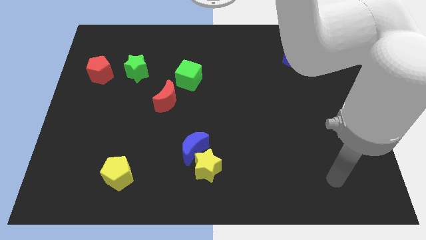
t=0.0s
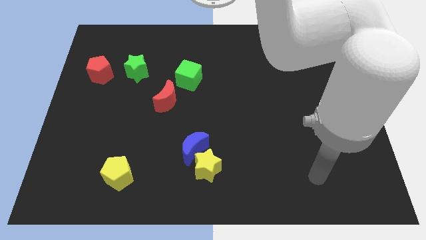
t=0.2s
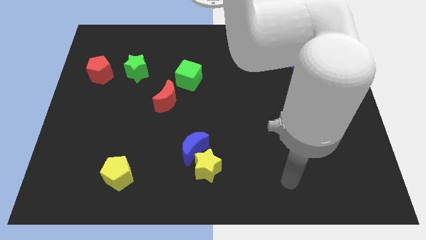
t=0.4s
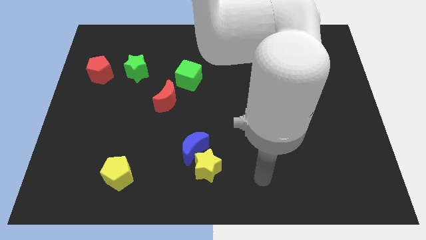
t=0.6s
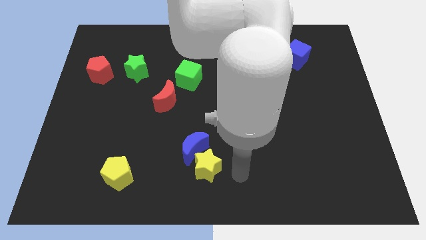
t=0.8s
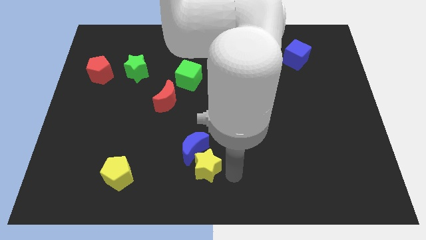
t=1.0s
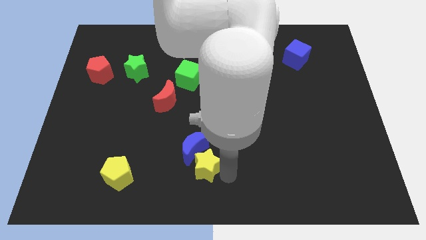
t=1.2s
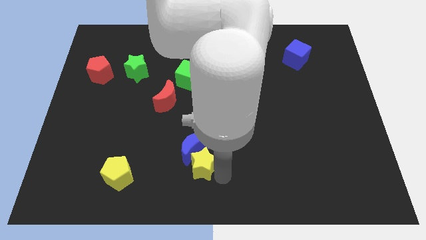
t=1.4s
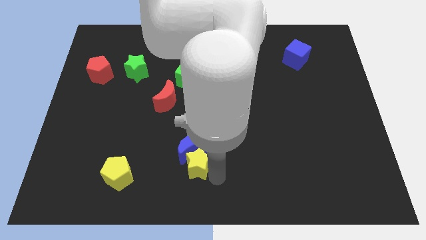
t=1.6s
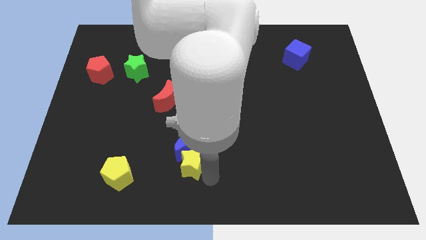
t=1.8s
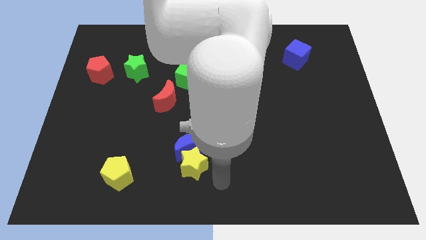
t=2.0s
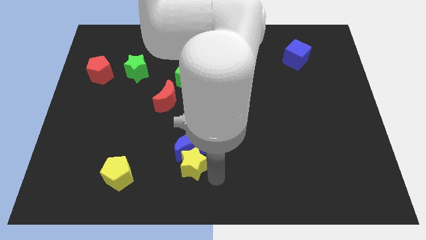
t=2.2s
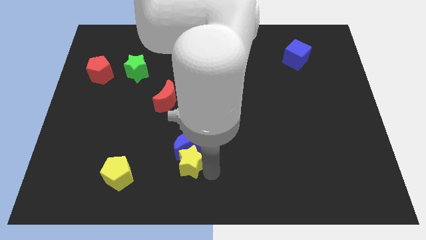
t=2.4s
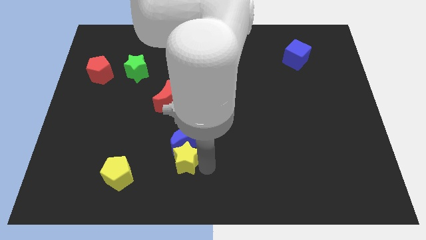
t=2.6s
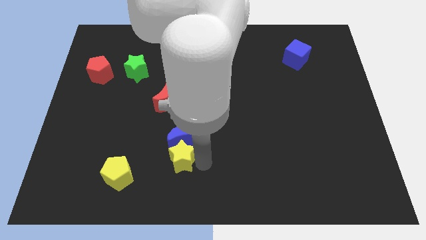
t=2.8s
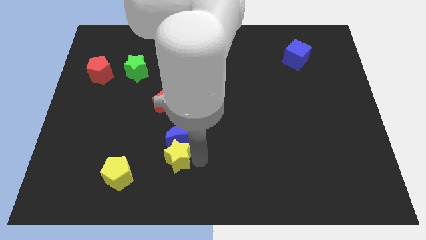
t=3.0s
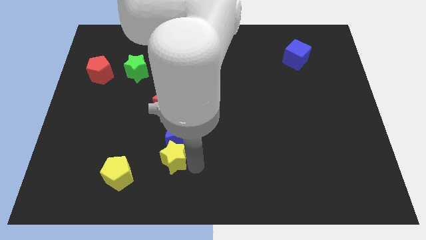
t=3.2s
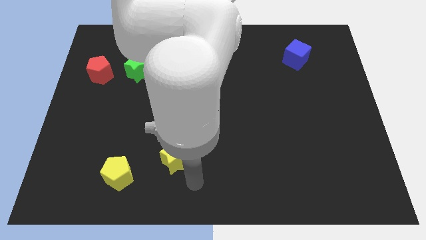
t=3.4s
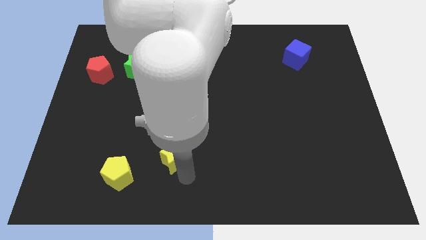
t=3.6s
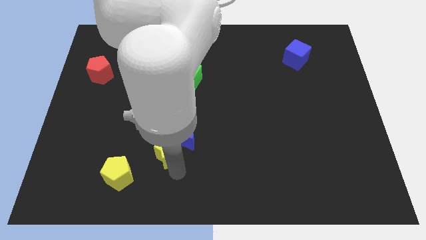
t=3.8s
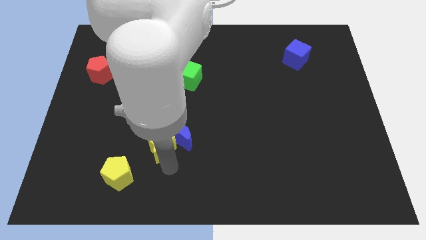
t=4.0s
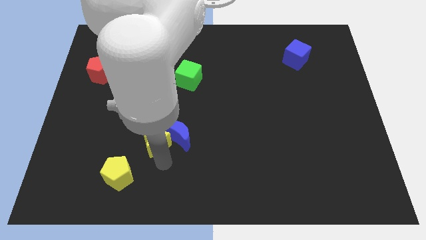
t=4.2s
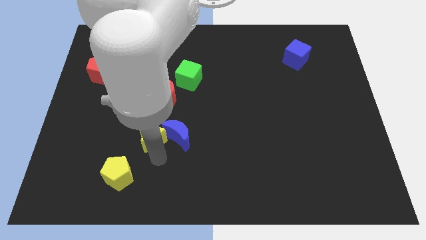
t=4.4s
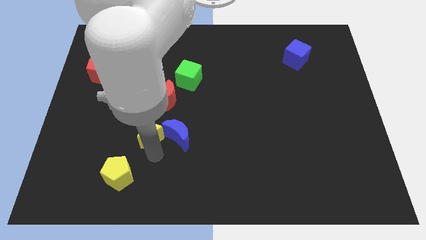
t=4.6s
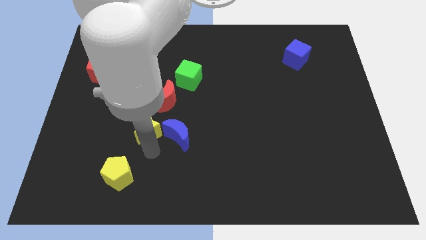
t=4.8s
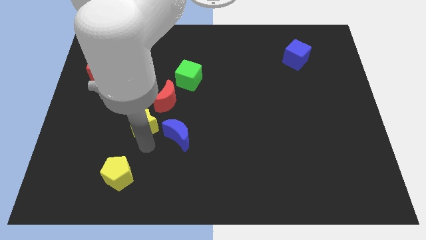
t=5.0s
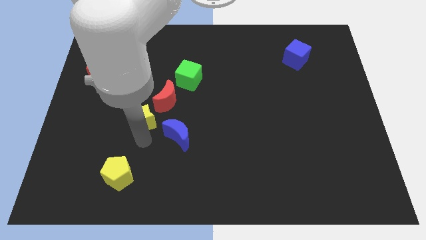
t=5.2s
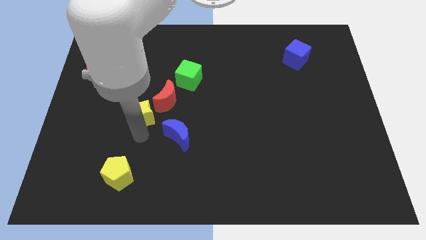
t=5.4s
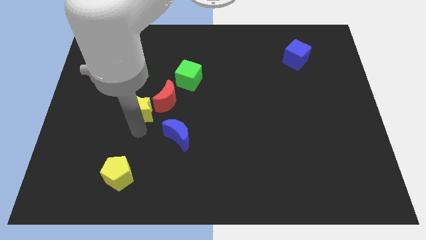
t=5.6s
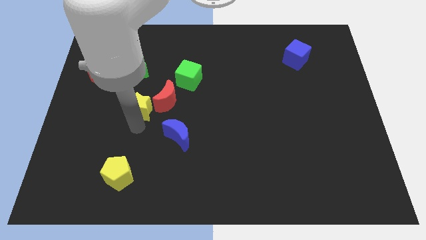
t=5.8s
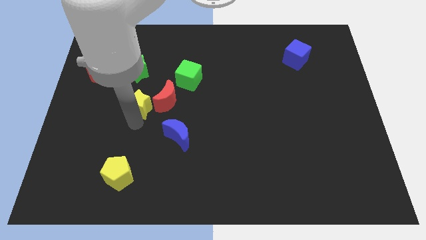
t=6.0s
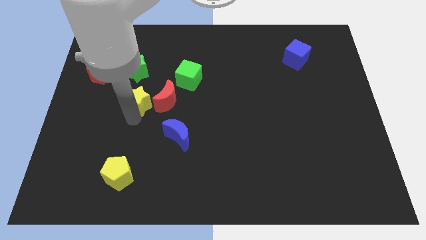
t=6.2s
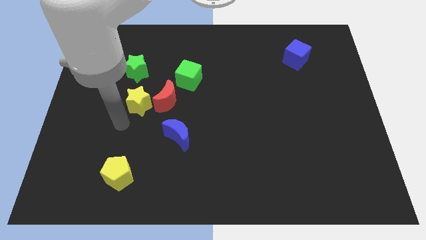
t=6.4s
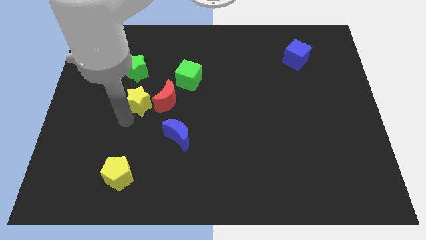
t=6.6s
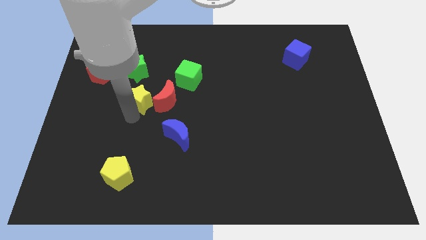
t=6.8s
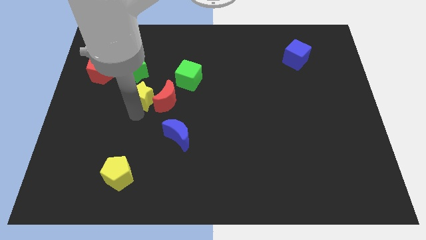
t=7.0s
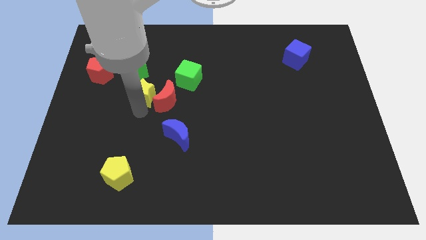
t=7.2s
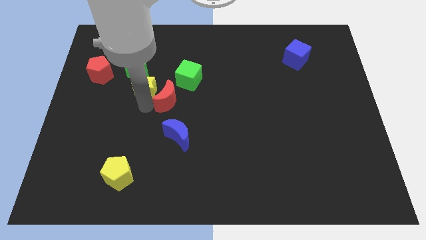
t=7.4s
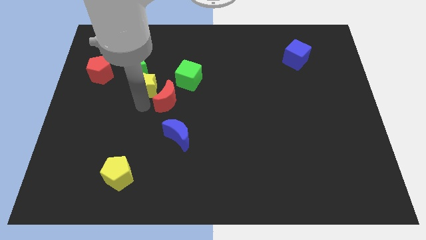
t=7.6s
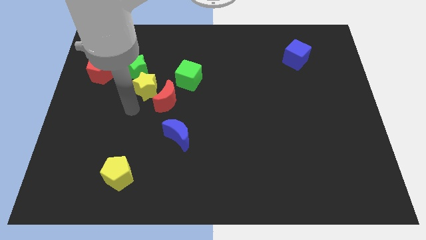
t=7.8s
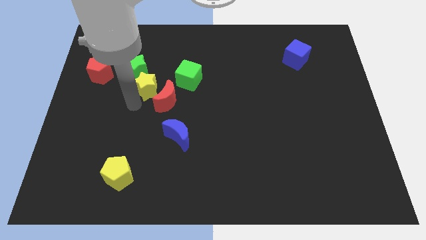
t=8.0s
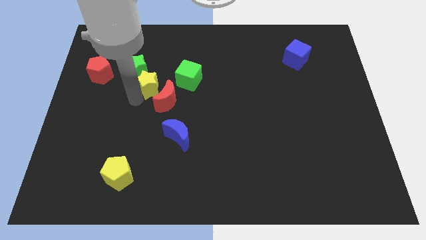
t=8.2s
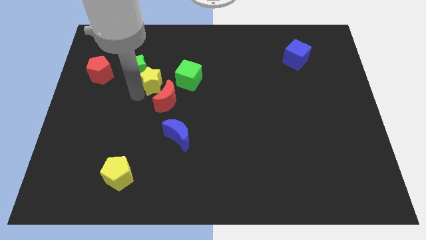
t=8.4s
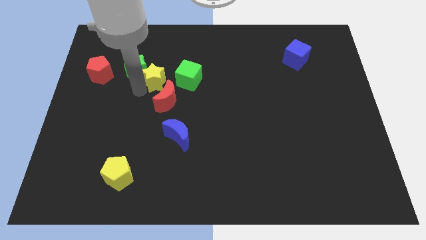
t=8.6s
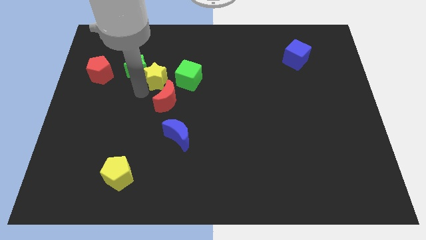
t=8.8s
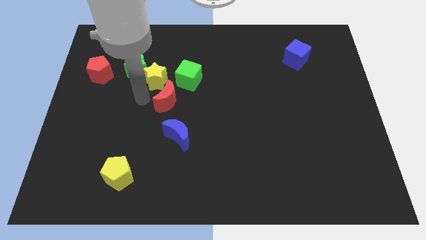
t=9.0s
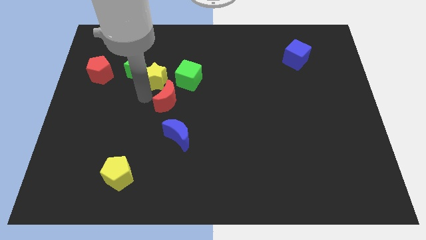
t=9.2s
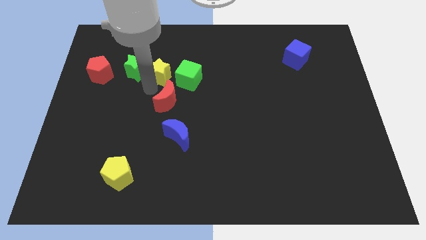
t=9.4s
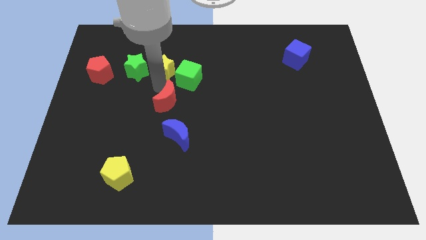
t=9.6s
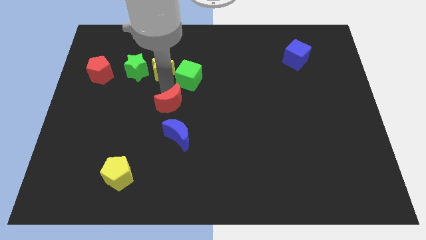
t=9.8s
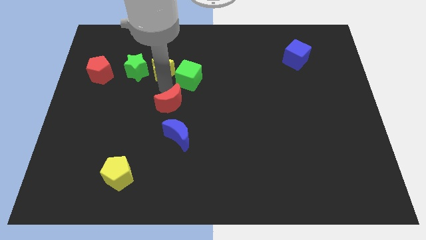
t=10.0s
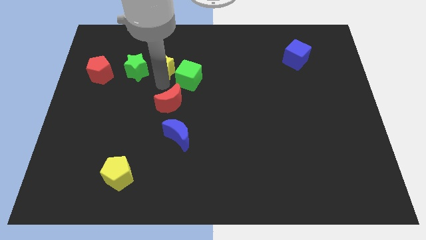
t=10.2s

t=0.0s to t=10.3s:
put the yellow star diagonally up and to the right of the green star

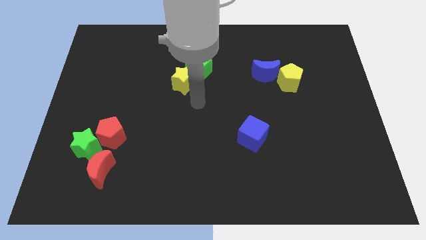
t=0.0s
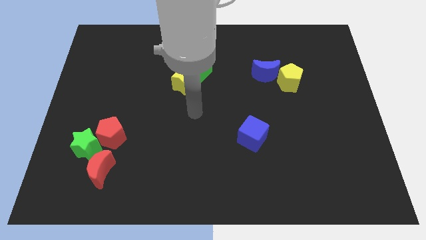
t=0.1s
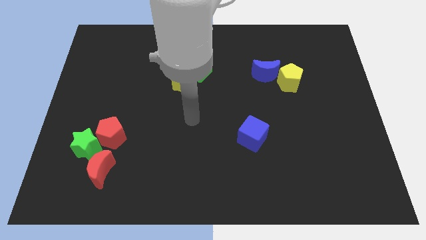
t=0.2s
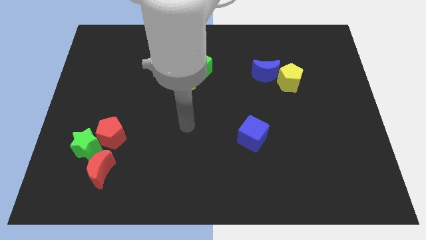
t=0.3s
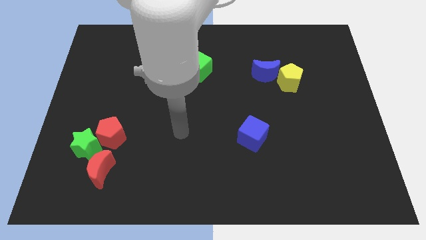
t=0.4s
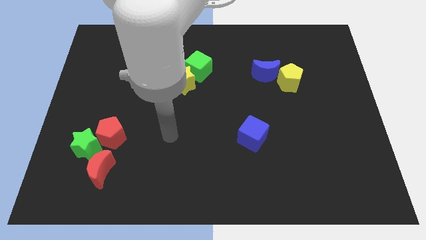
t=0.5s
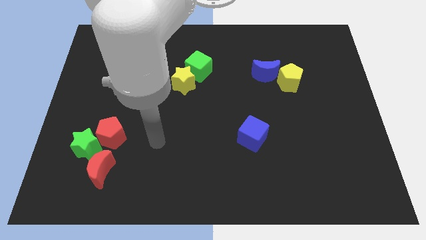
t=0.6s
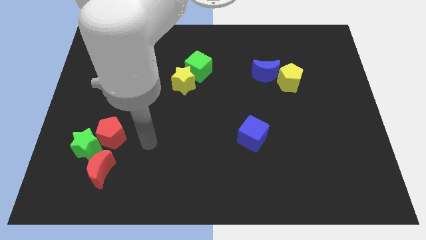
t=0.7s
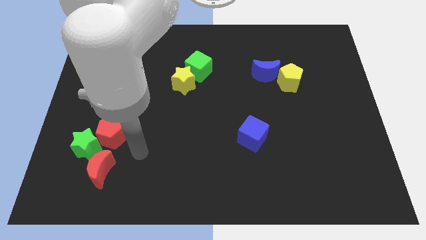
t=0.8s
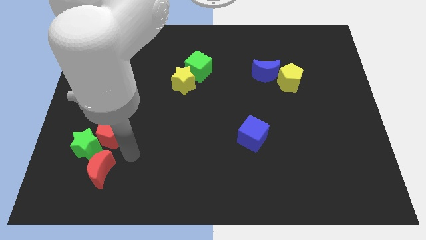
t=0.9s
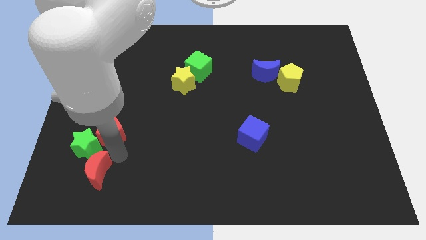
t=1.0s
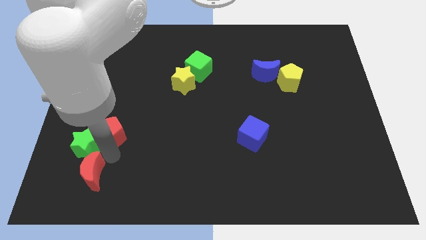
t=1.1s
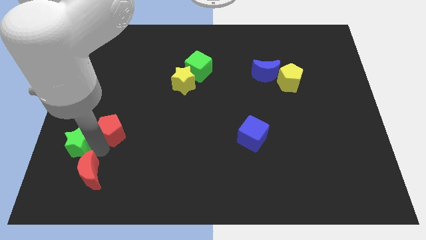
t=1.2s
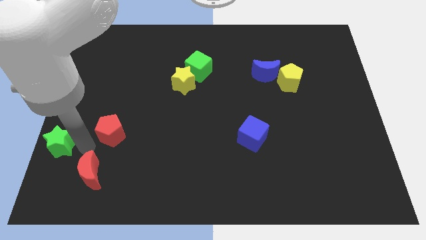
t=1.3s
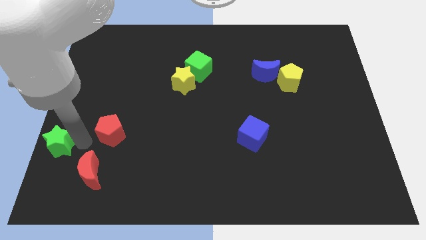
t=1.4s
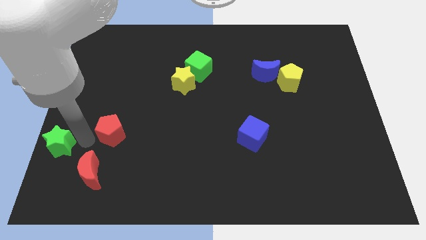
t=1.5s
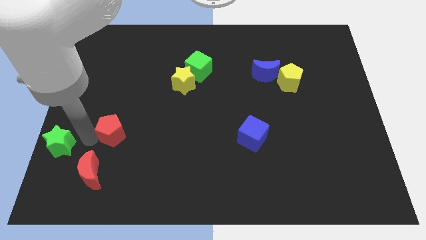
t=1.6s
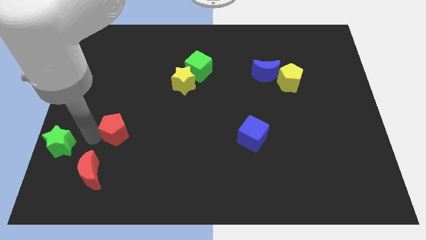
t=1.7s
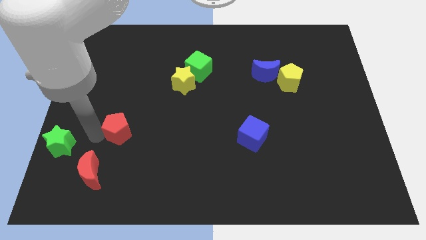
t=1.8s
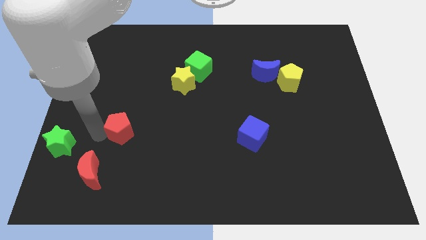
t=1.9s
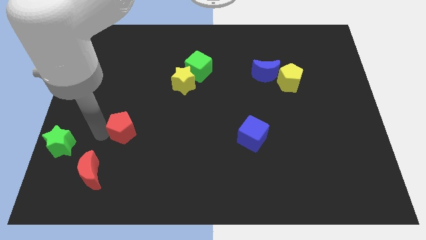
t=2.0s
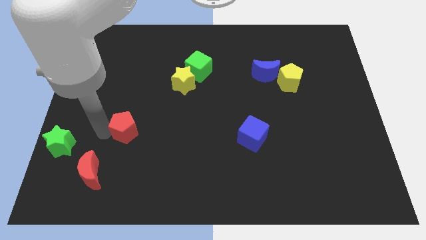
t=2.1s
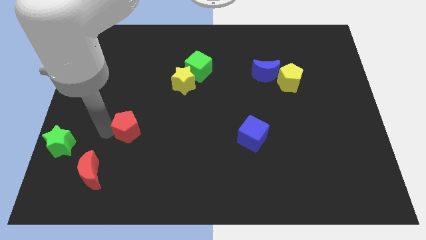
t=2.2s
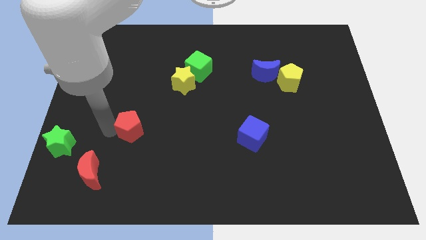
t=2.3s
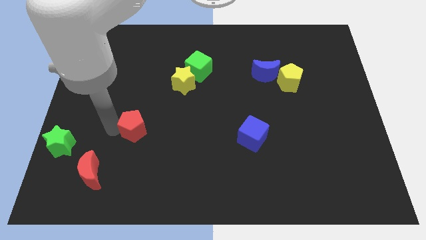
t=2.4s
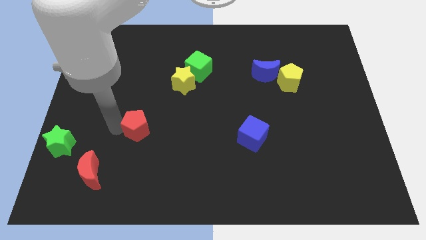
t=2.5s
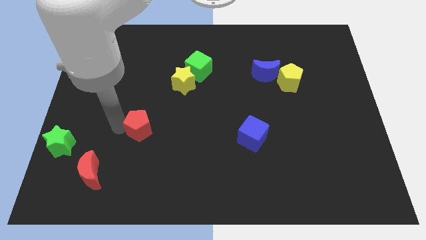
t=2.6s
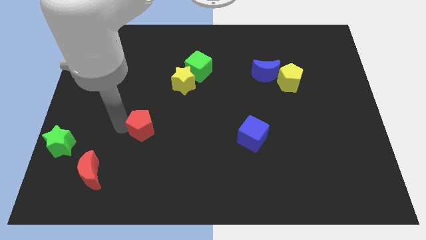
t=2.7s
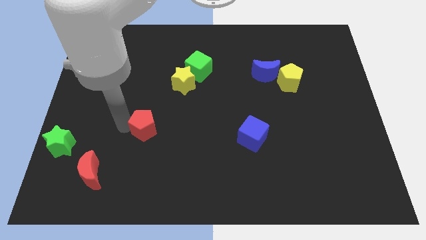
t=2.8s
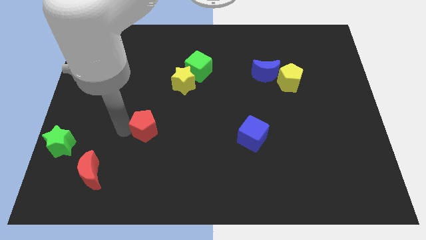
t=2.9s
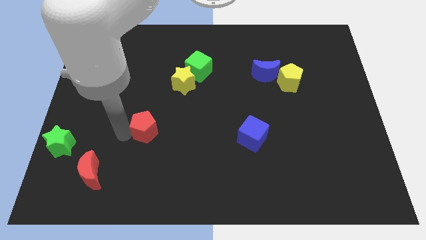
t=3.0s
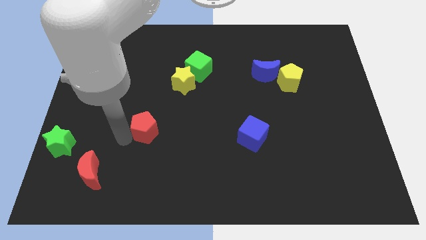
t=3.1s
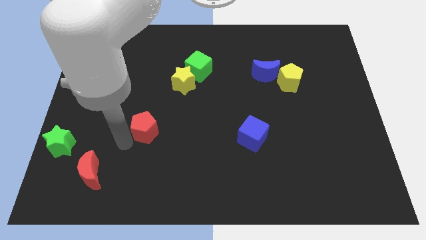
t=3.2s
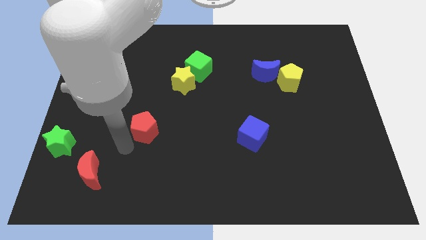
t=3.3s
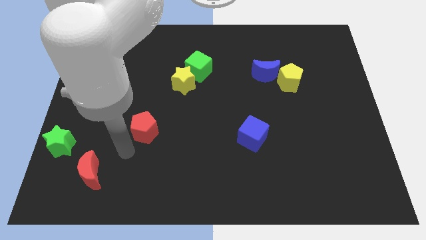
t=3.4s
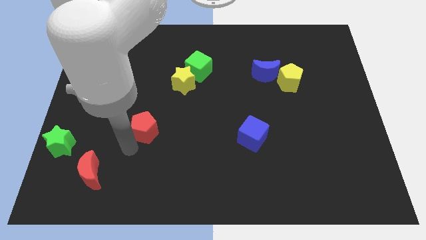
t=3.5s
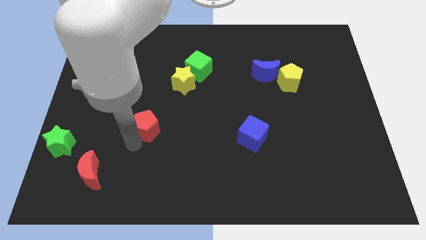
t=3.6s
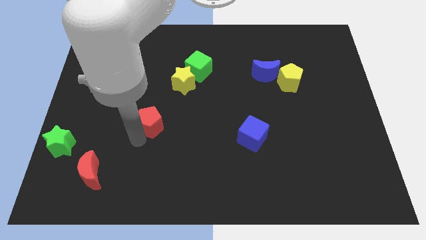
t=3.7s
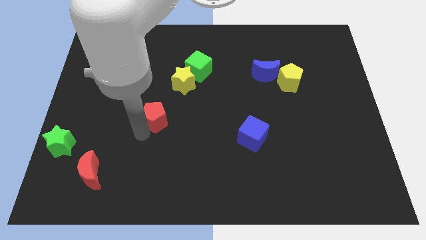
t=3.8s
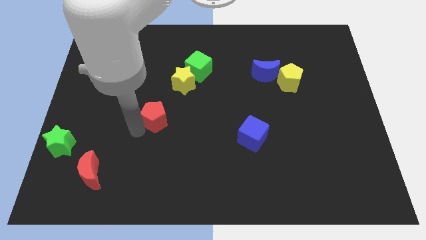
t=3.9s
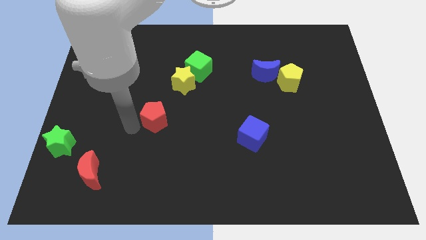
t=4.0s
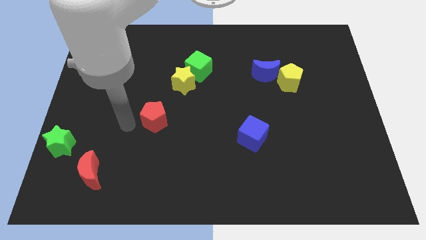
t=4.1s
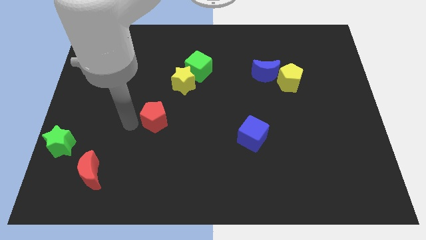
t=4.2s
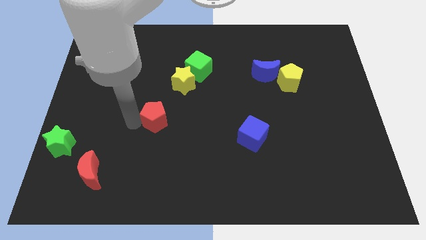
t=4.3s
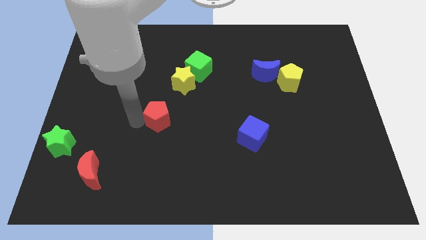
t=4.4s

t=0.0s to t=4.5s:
push the red pentagon to the bottom of the yellow star
